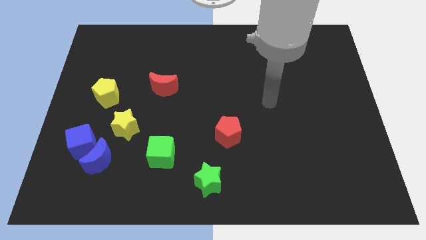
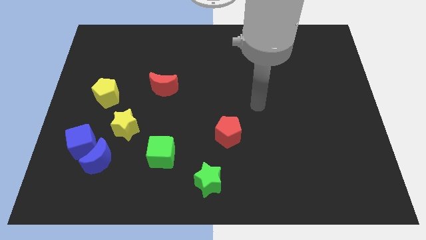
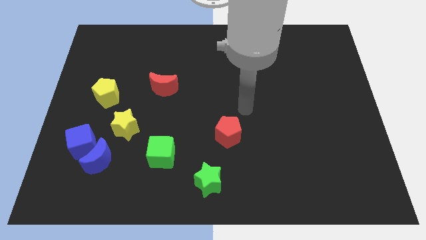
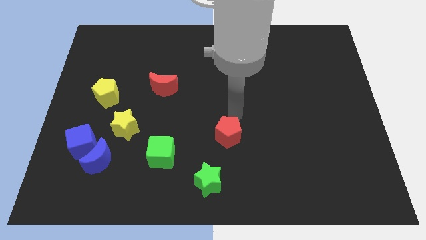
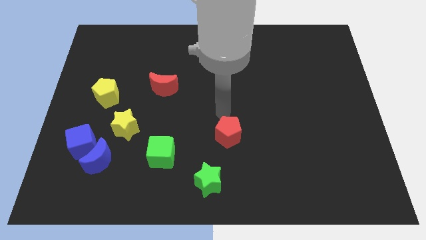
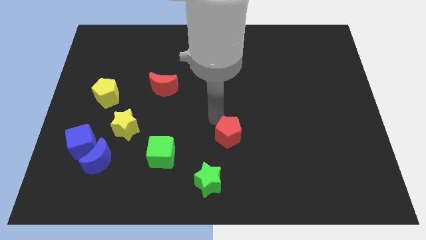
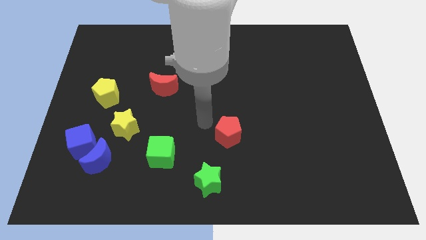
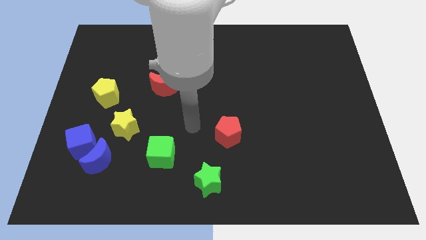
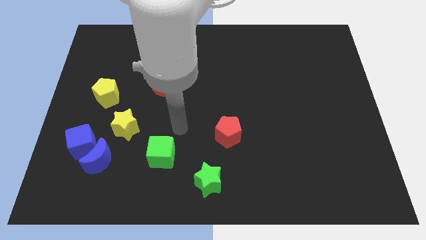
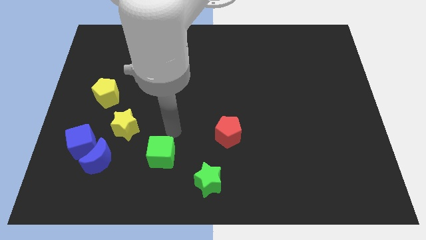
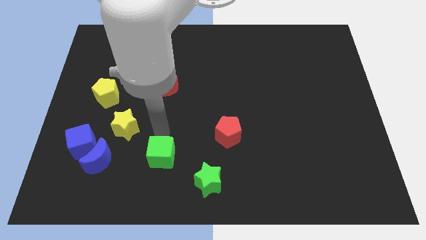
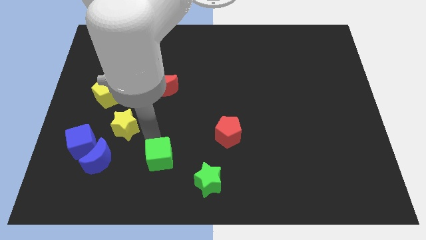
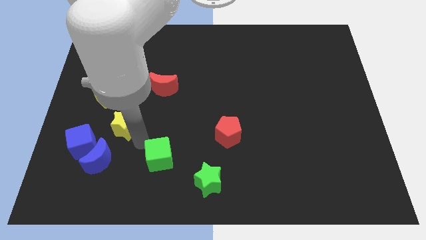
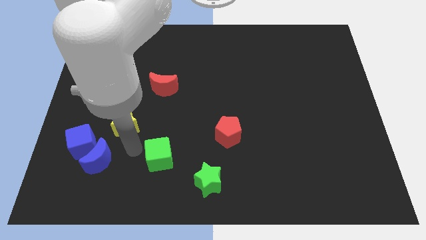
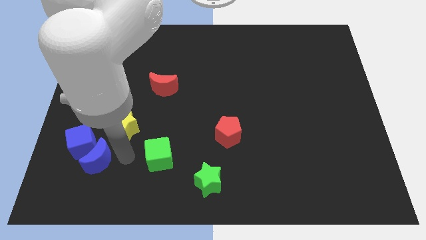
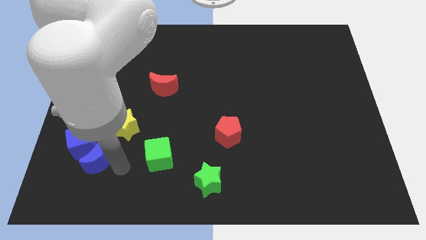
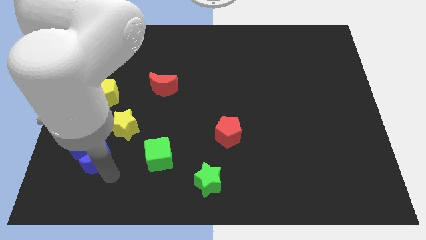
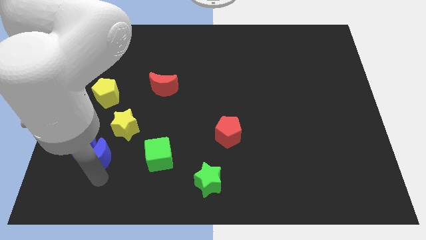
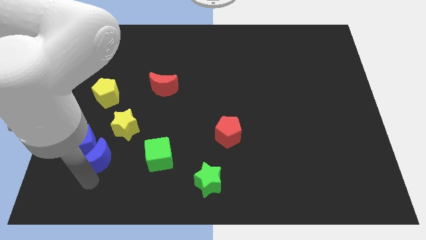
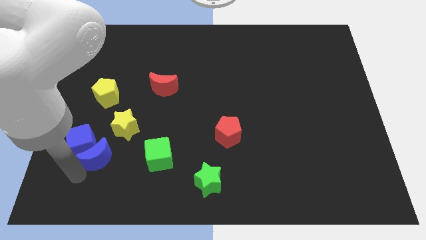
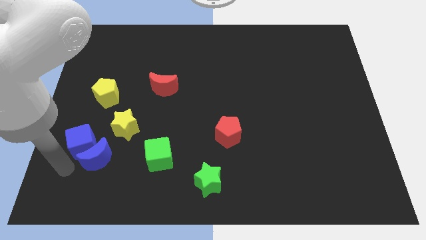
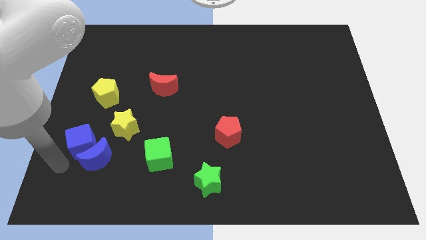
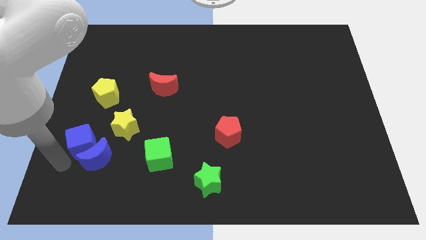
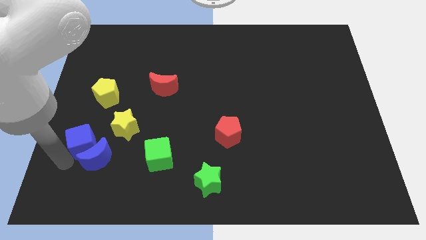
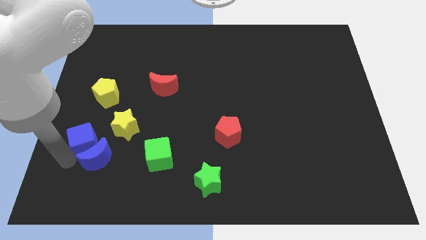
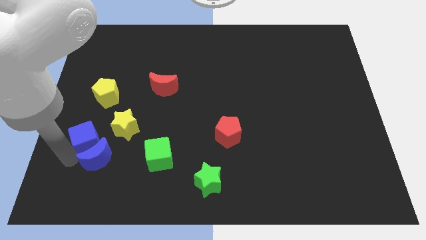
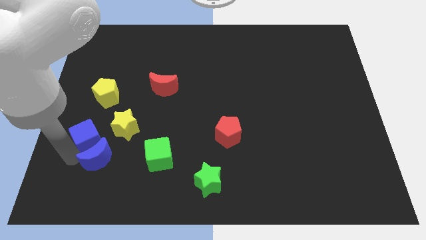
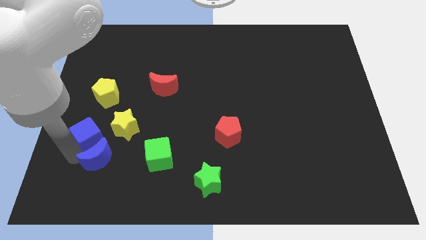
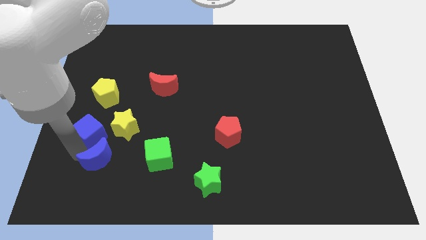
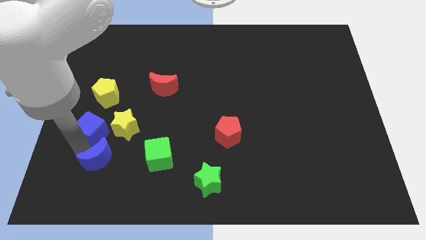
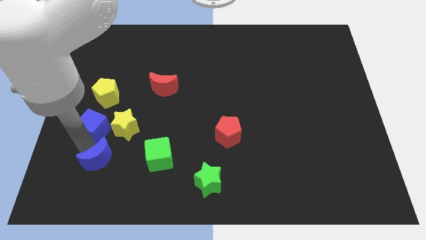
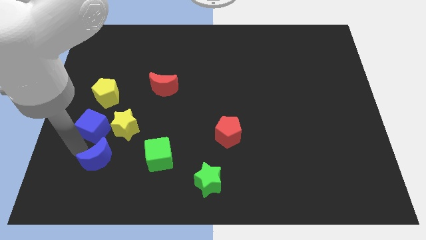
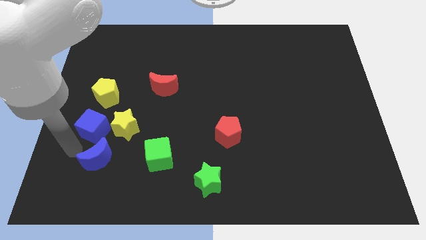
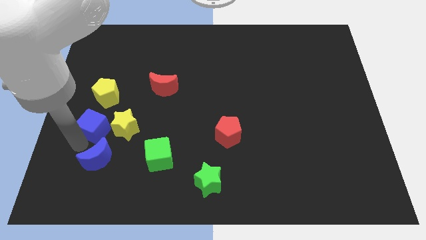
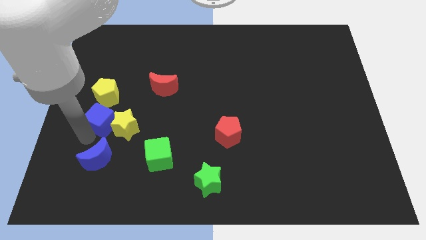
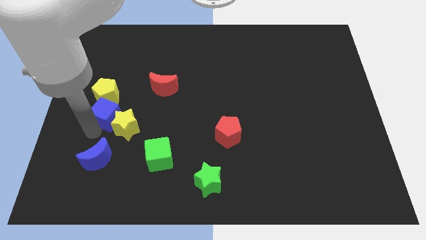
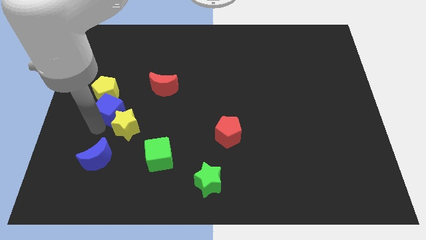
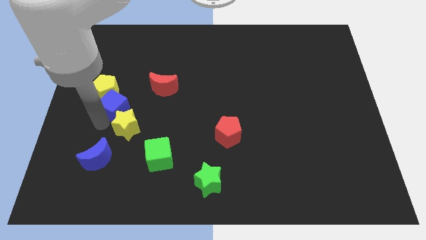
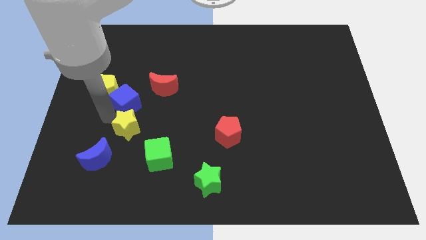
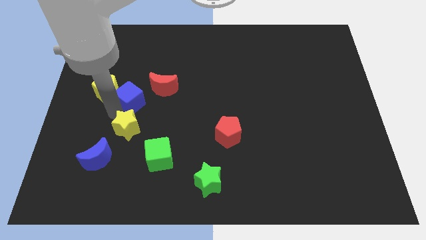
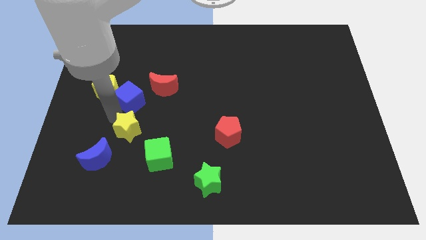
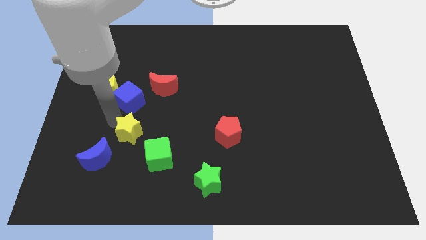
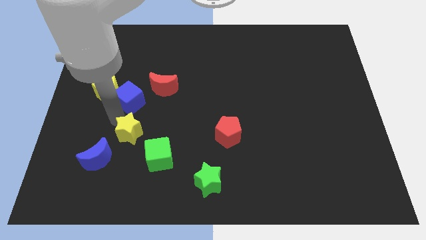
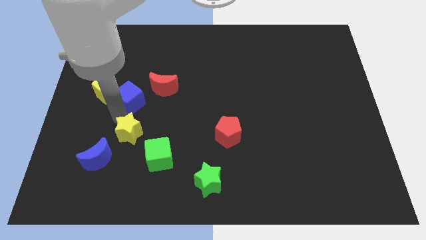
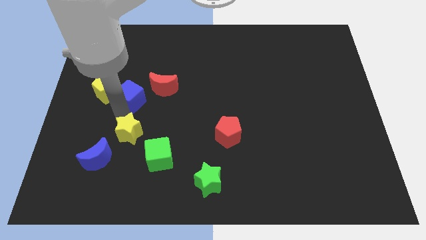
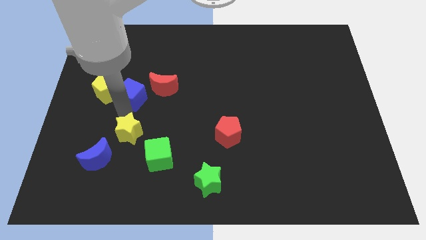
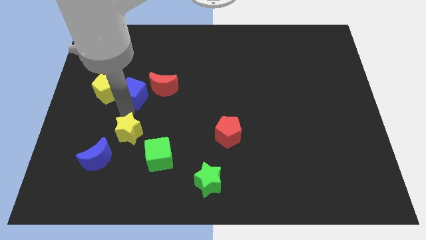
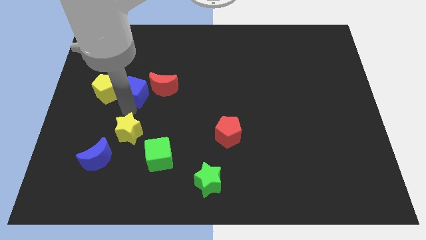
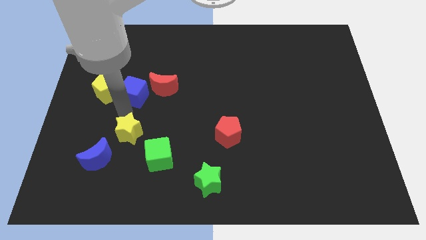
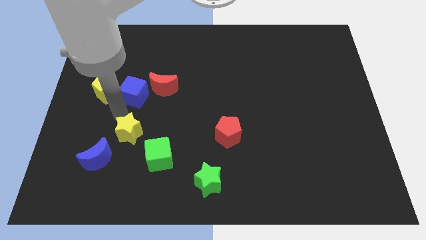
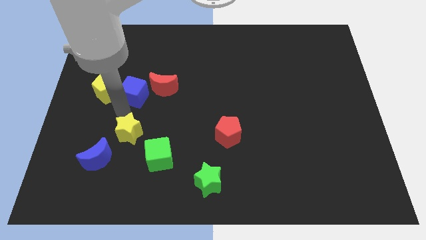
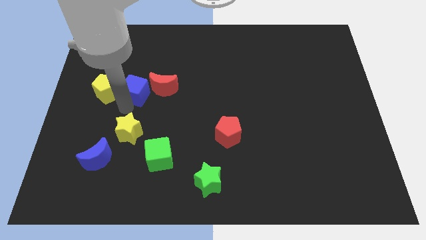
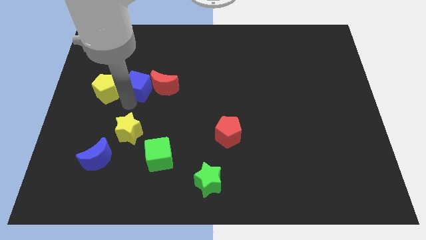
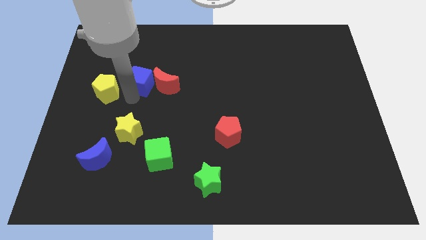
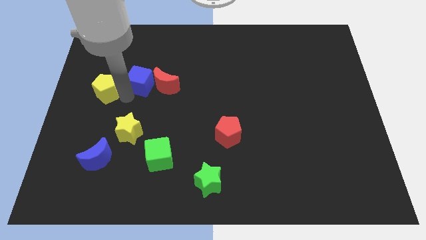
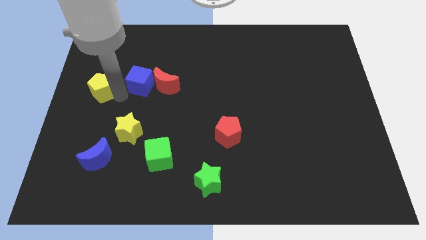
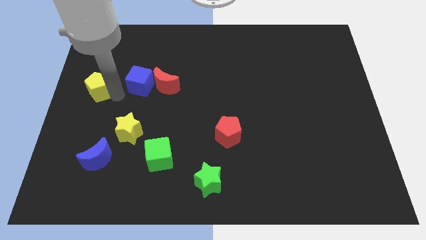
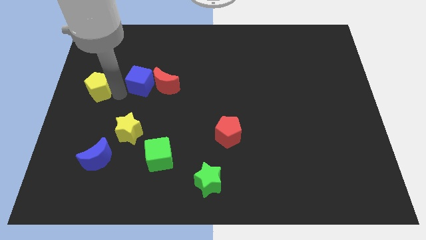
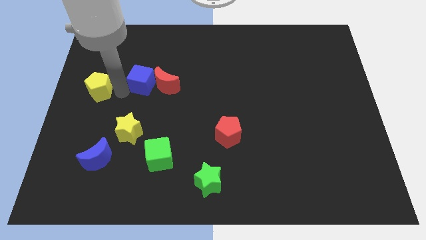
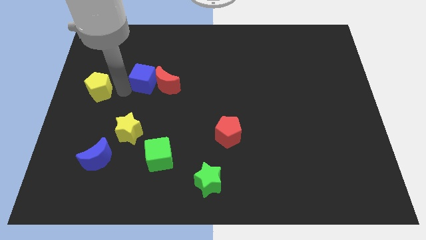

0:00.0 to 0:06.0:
move the blue cube upwards and to the right

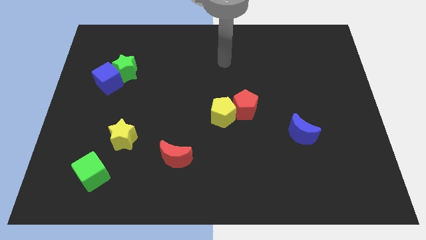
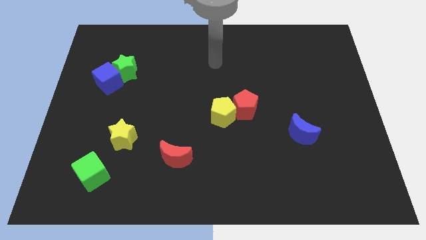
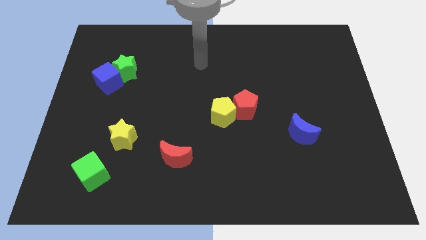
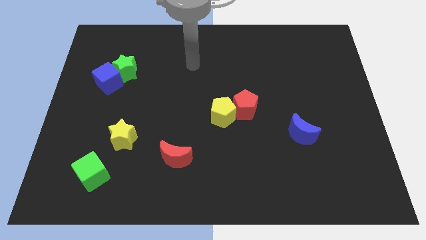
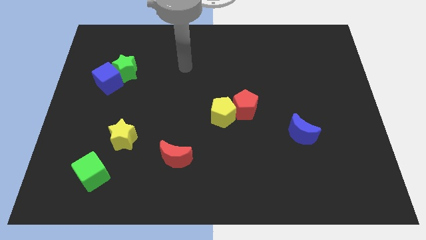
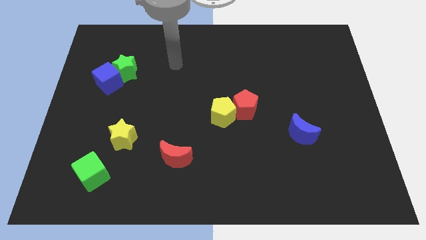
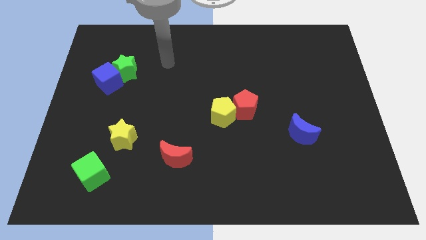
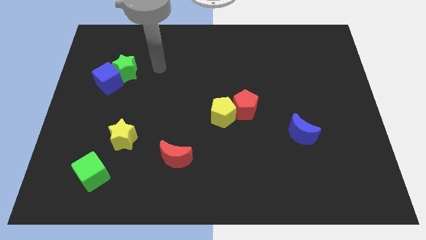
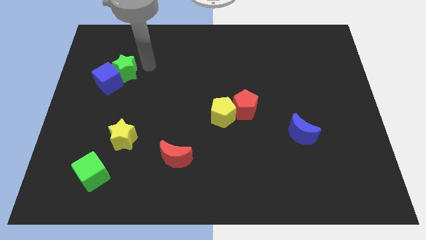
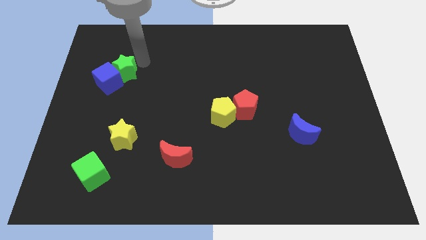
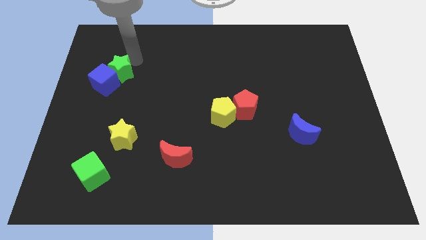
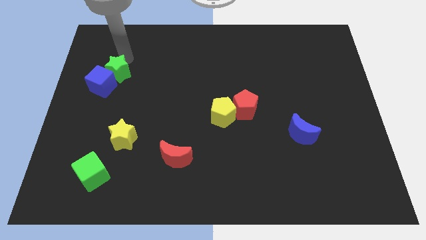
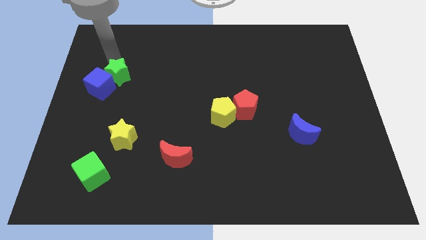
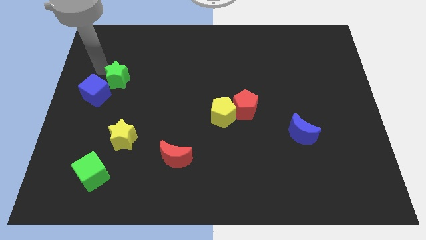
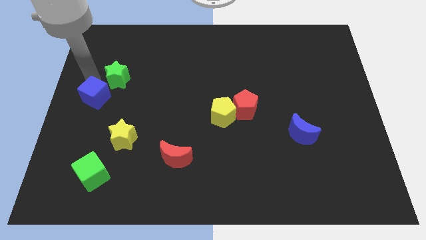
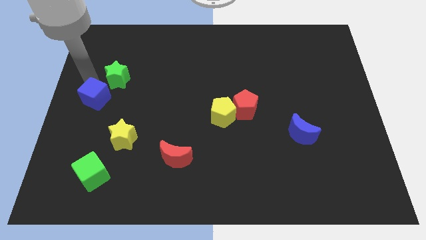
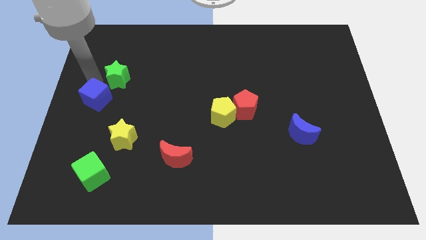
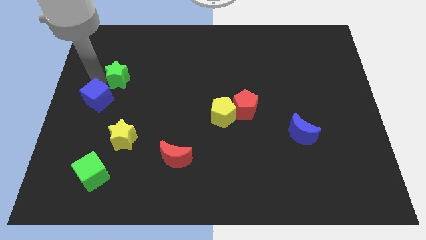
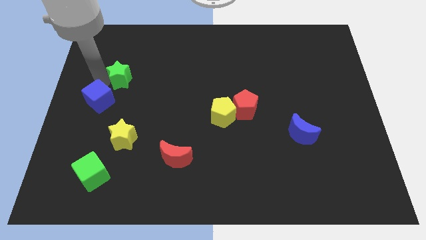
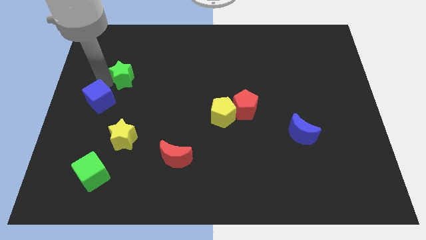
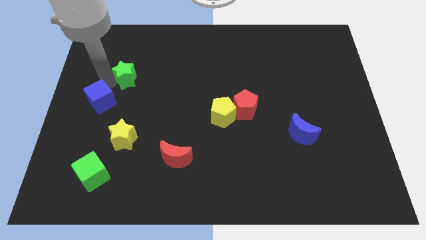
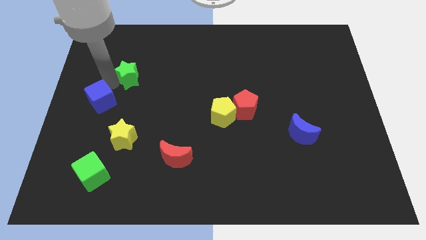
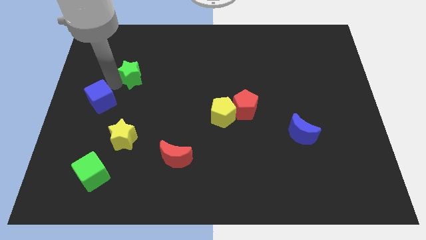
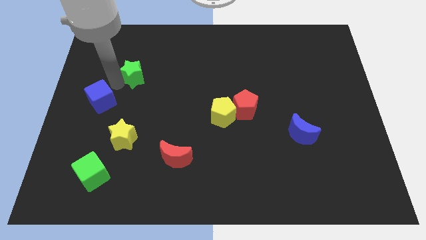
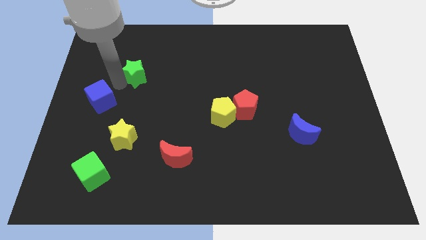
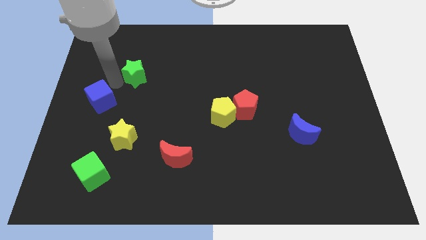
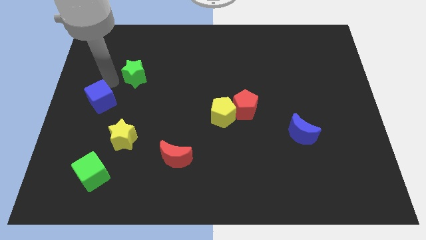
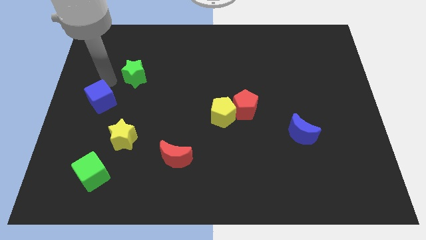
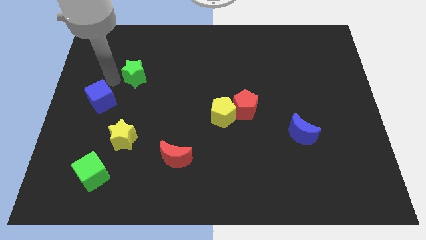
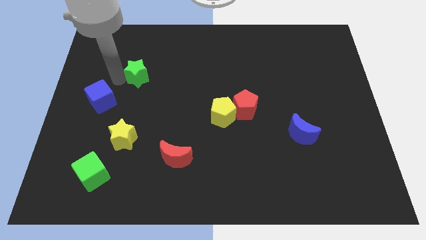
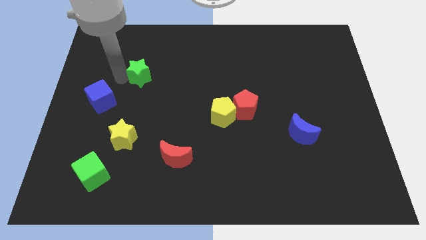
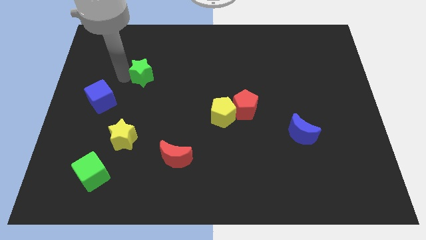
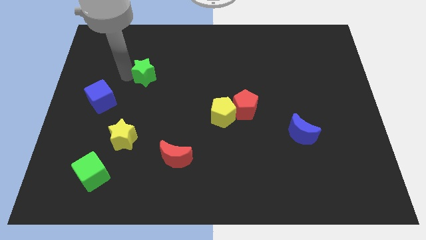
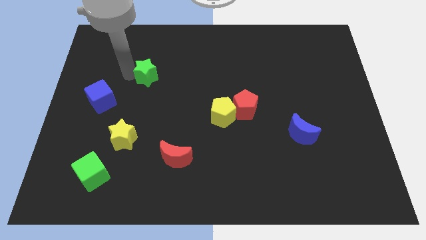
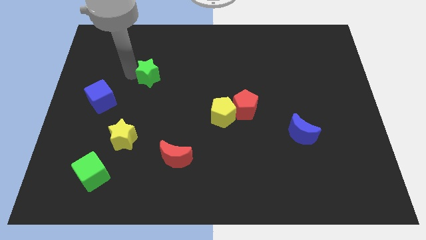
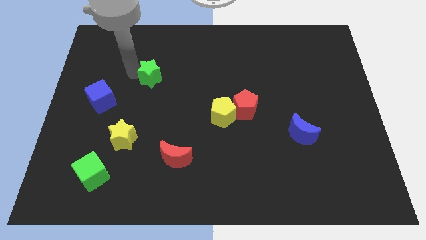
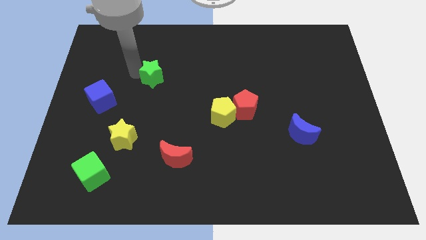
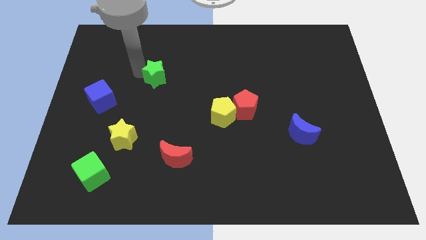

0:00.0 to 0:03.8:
slightly slide the green star to the right
